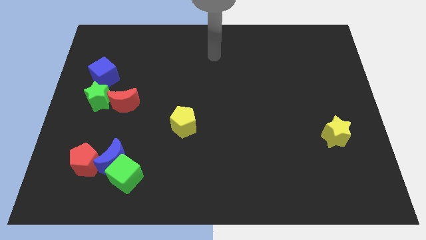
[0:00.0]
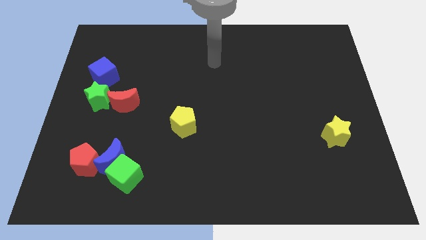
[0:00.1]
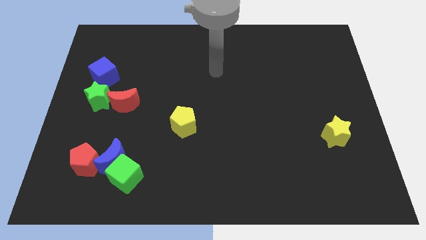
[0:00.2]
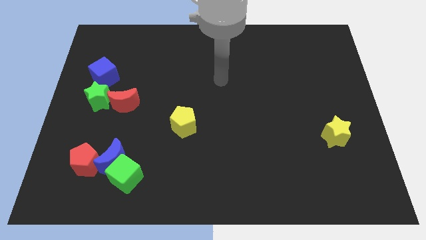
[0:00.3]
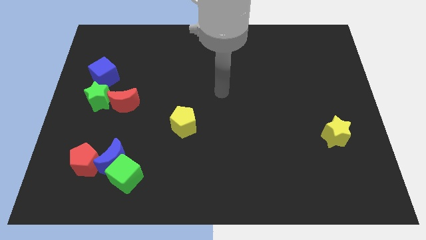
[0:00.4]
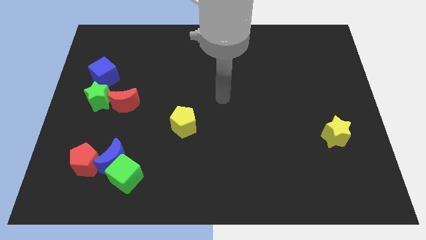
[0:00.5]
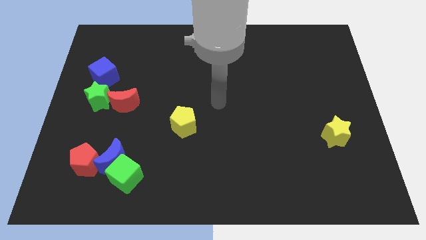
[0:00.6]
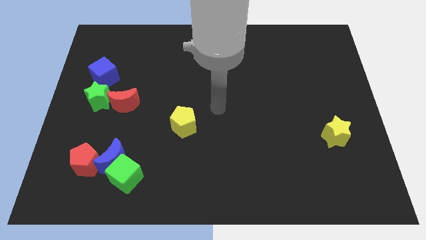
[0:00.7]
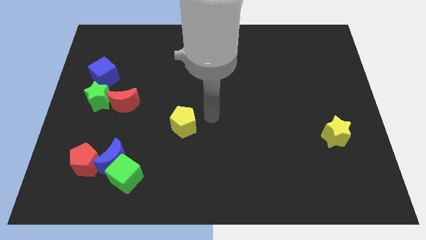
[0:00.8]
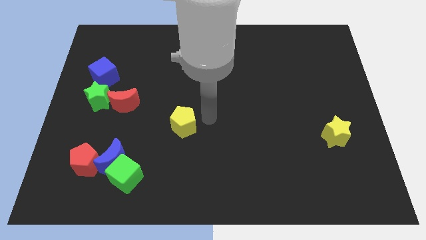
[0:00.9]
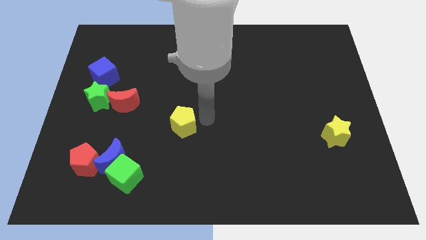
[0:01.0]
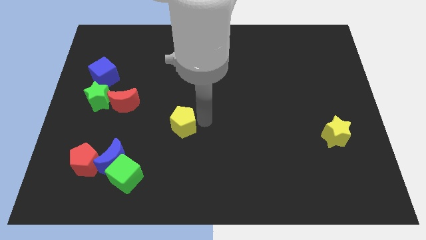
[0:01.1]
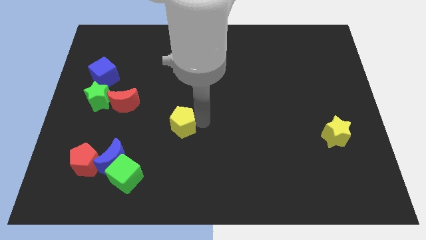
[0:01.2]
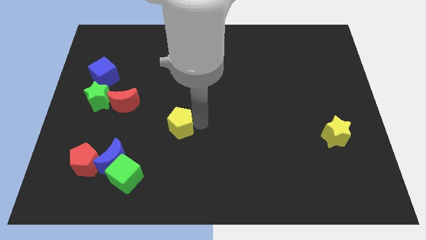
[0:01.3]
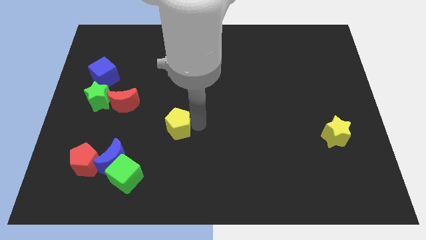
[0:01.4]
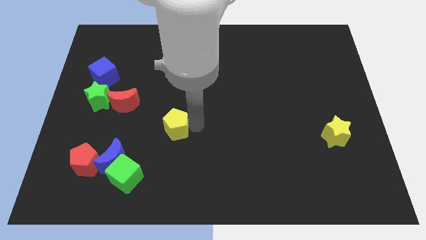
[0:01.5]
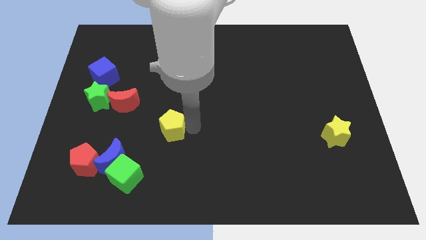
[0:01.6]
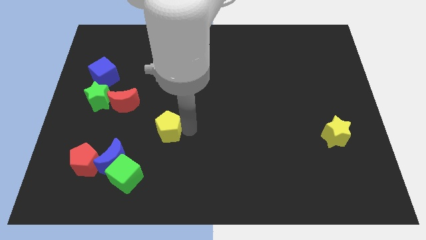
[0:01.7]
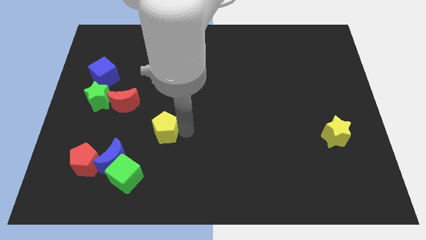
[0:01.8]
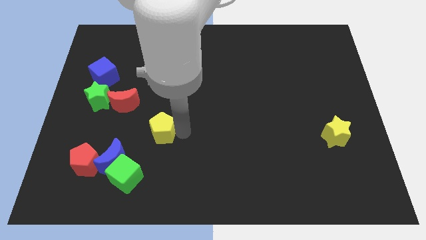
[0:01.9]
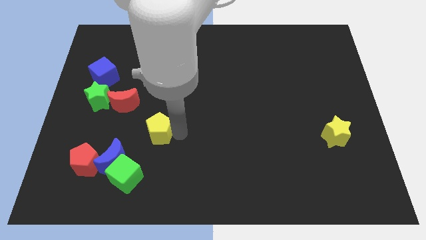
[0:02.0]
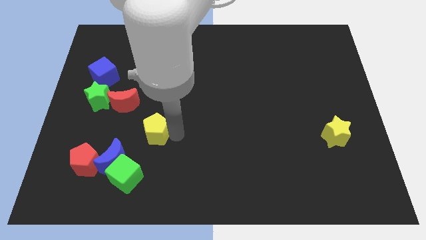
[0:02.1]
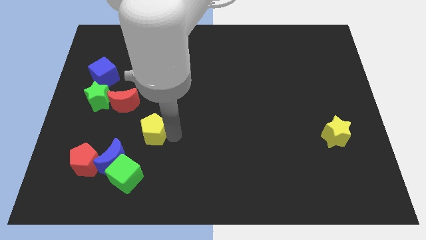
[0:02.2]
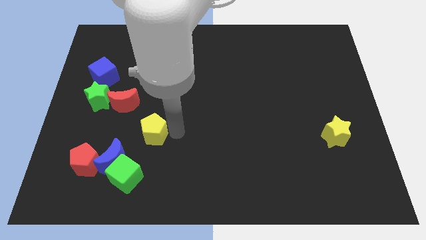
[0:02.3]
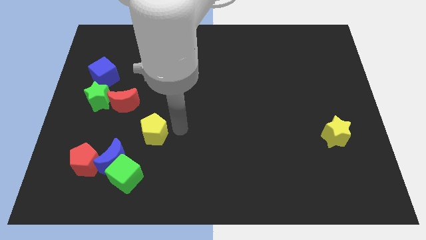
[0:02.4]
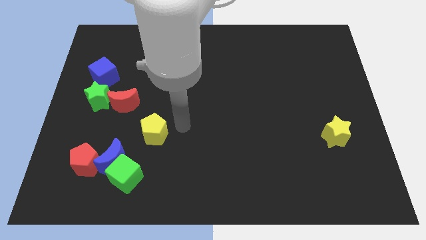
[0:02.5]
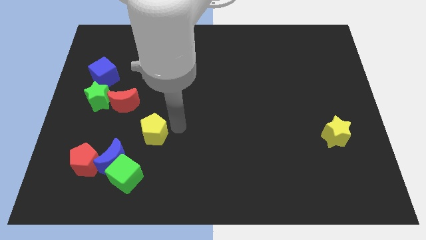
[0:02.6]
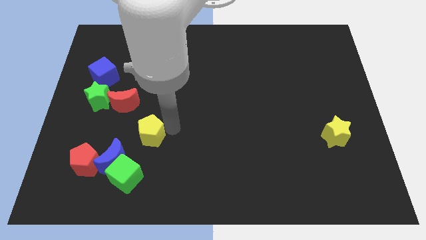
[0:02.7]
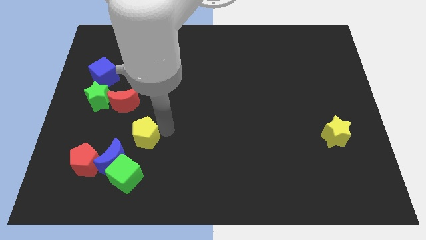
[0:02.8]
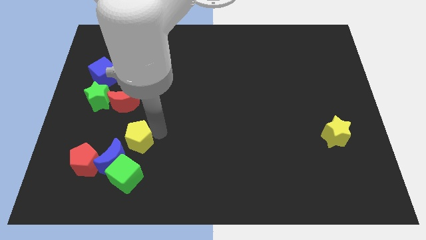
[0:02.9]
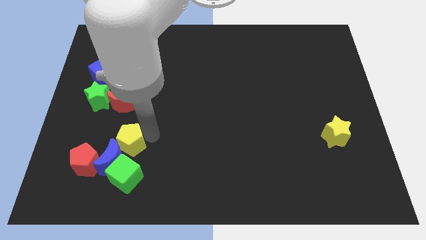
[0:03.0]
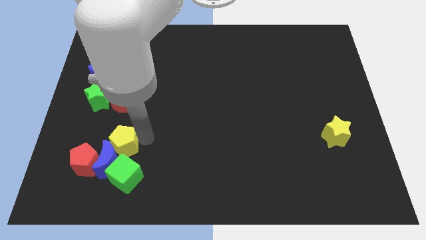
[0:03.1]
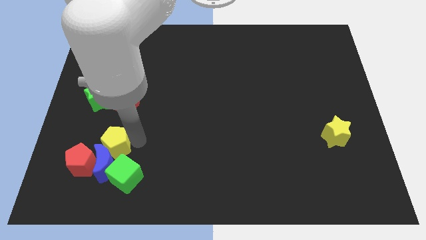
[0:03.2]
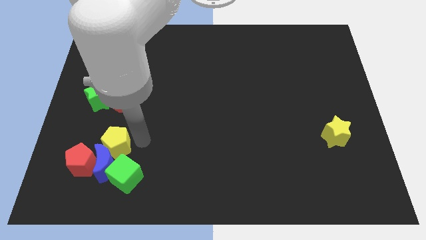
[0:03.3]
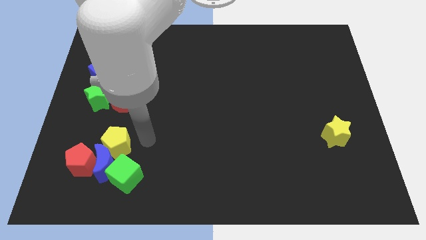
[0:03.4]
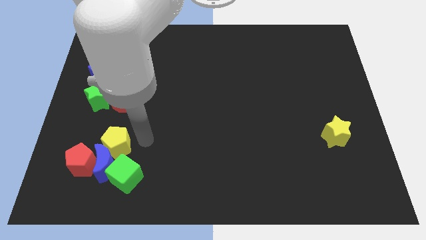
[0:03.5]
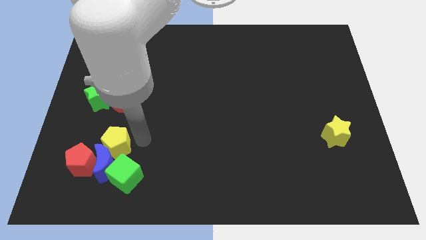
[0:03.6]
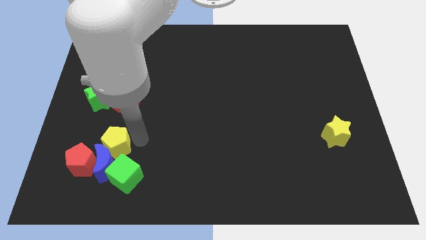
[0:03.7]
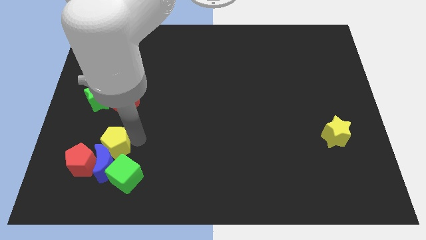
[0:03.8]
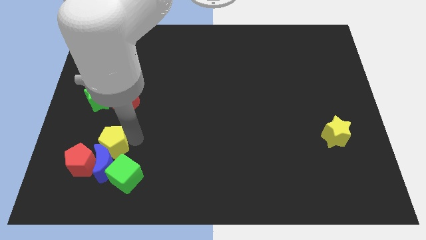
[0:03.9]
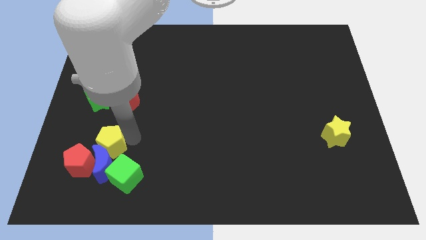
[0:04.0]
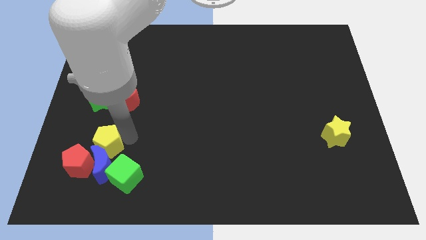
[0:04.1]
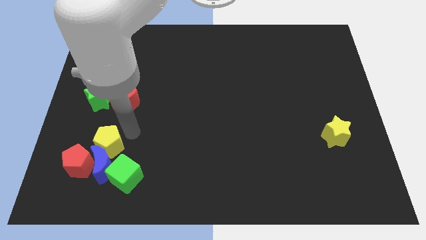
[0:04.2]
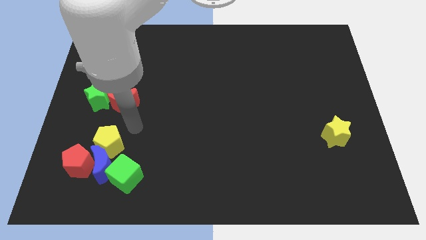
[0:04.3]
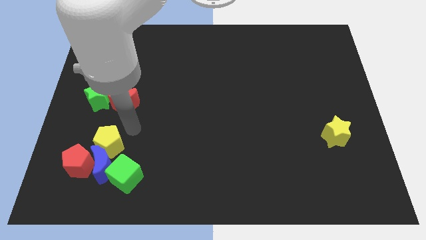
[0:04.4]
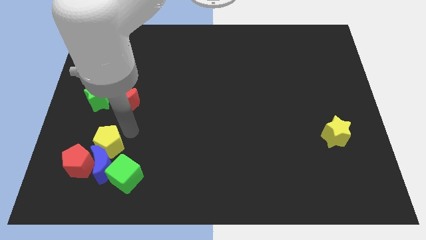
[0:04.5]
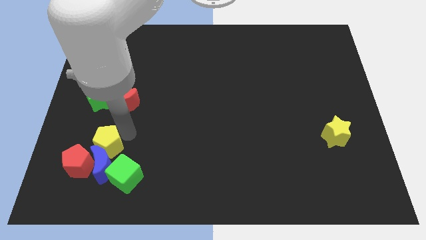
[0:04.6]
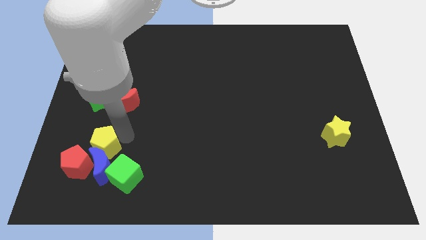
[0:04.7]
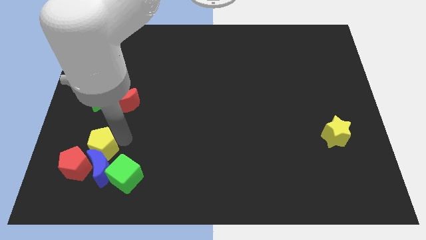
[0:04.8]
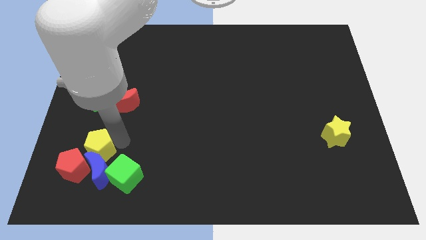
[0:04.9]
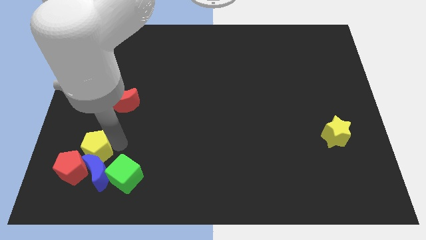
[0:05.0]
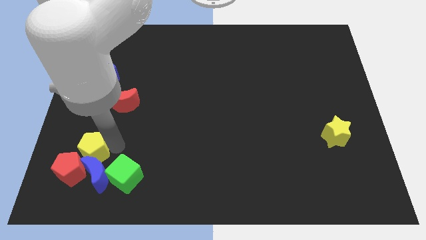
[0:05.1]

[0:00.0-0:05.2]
put the yellow pentagon next to the red pentagon

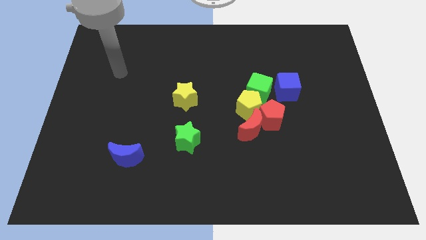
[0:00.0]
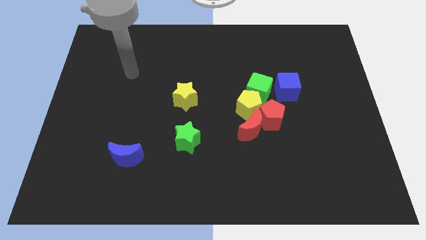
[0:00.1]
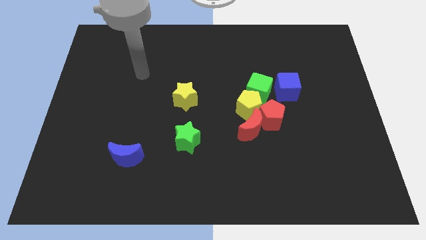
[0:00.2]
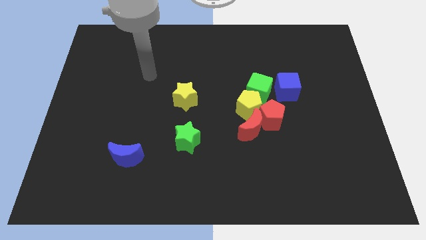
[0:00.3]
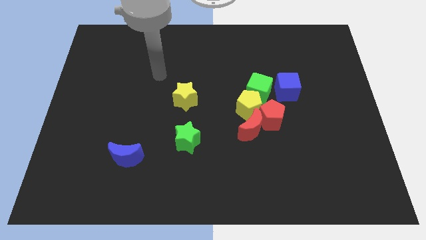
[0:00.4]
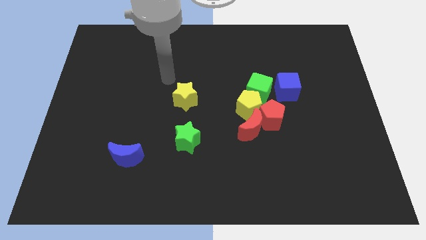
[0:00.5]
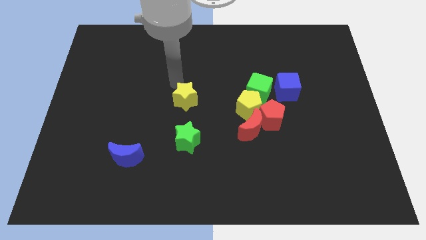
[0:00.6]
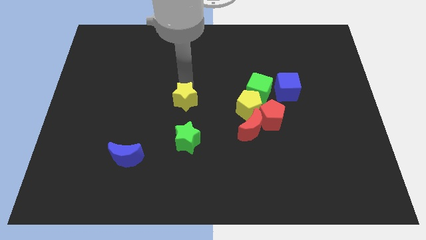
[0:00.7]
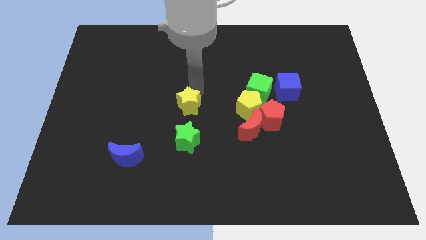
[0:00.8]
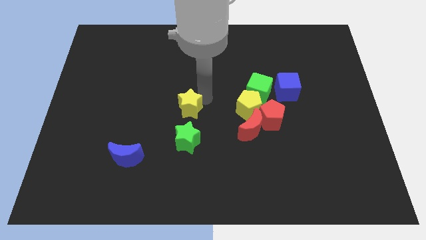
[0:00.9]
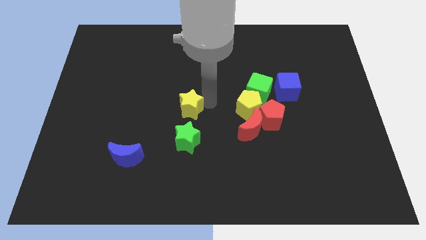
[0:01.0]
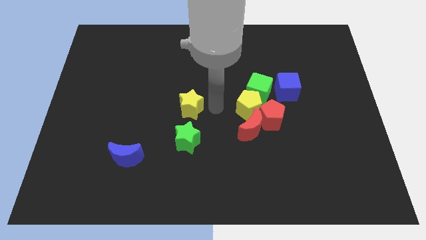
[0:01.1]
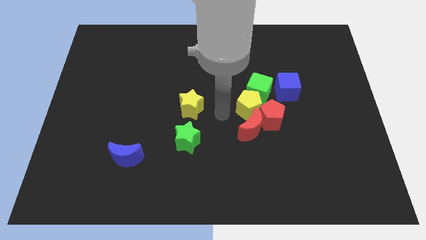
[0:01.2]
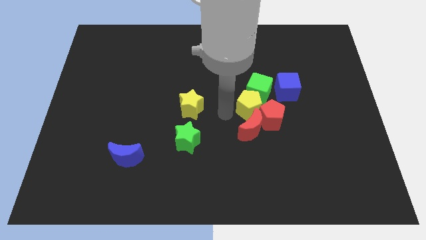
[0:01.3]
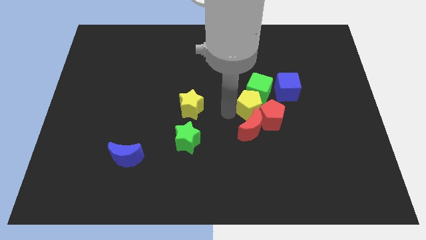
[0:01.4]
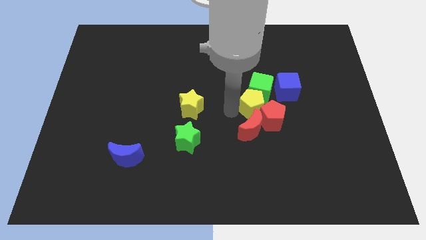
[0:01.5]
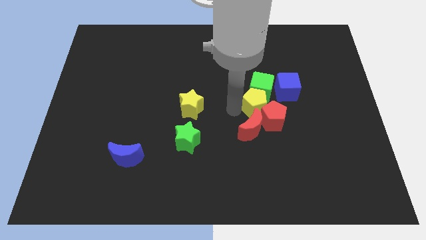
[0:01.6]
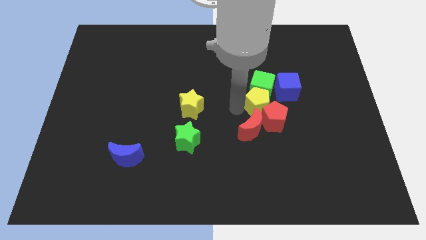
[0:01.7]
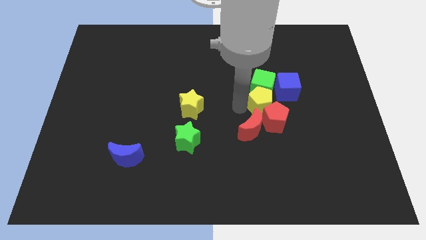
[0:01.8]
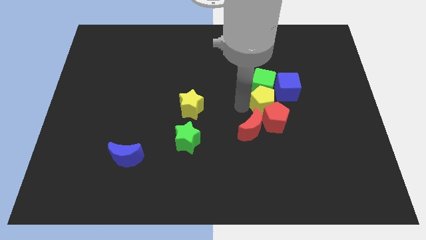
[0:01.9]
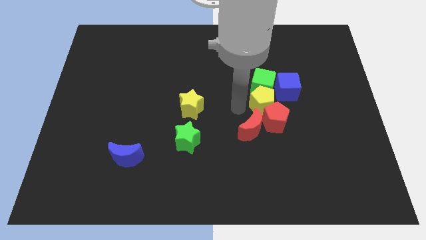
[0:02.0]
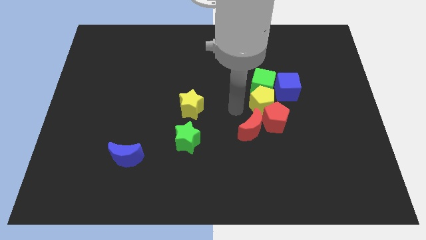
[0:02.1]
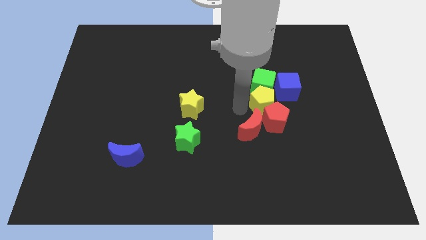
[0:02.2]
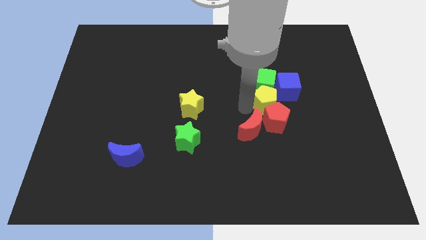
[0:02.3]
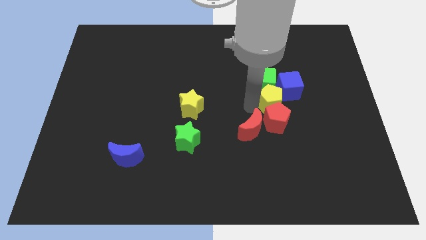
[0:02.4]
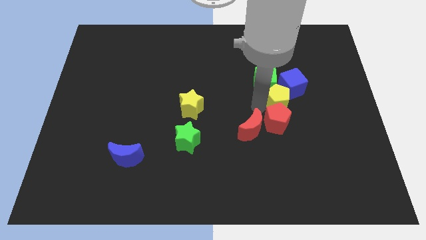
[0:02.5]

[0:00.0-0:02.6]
push the yellow pentagon towards the blue cube
